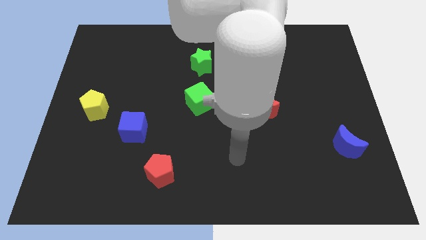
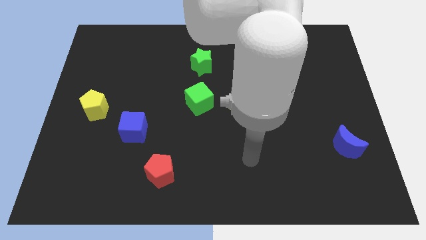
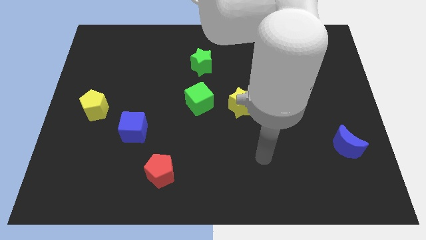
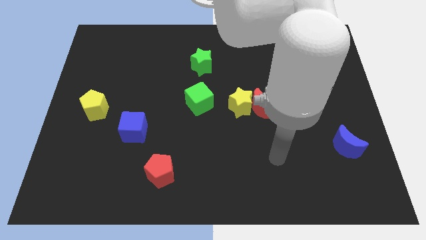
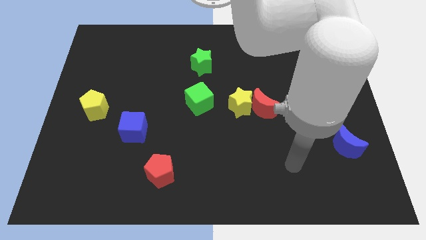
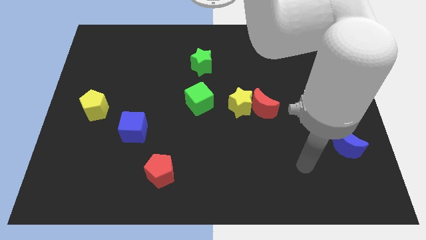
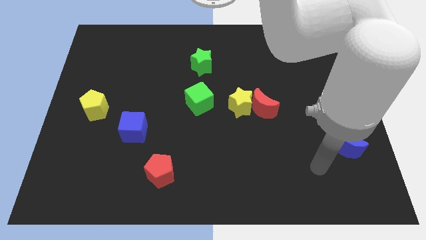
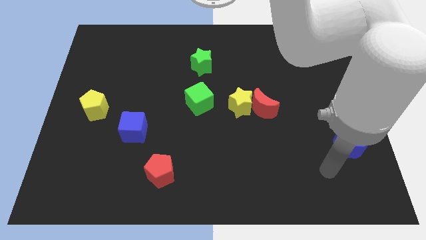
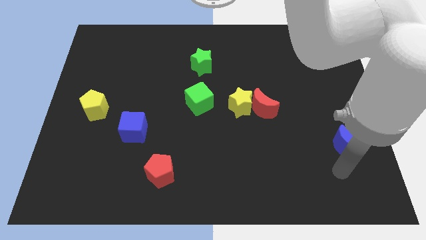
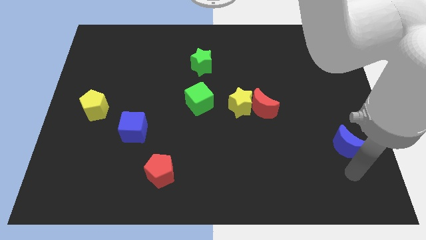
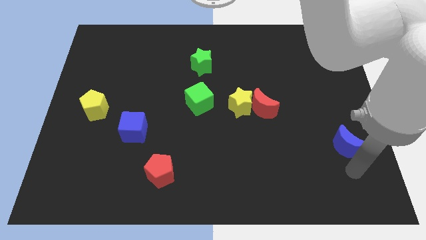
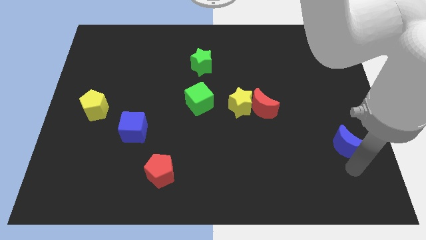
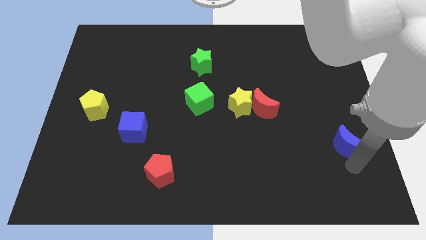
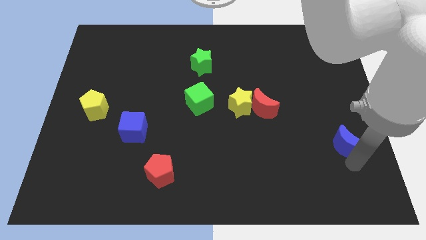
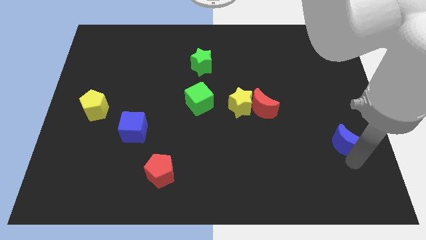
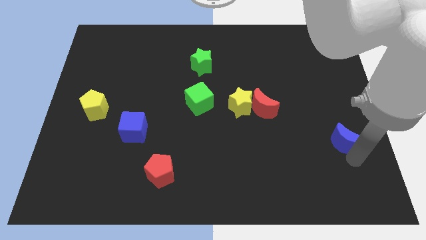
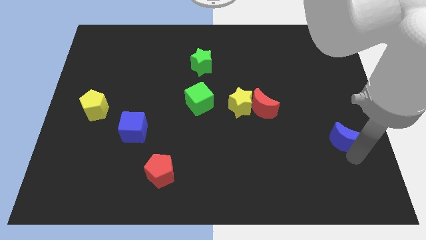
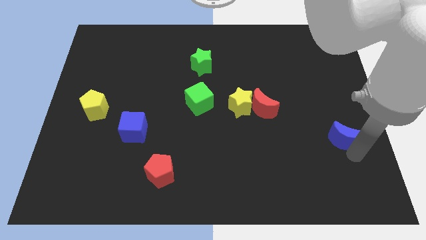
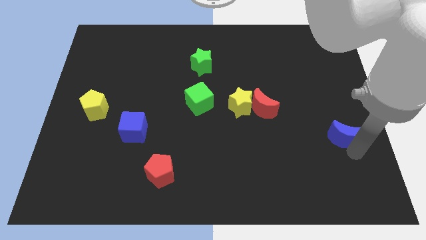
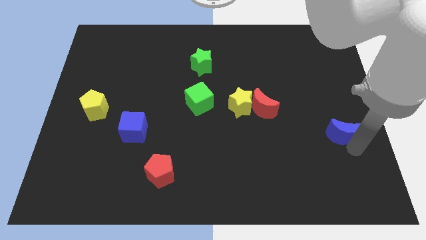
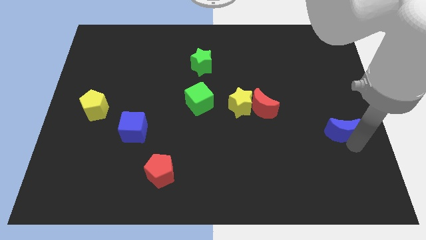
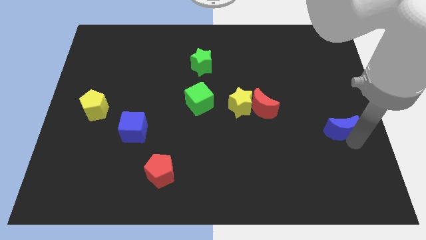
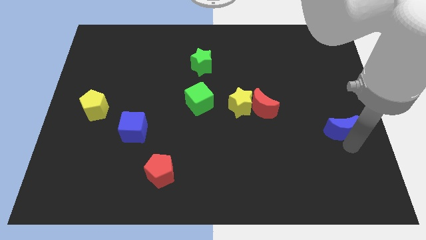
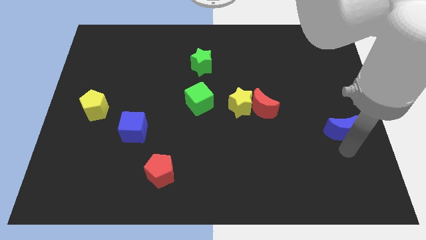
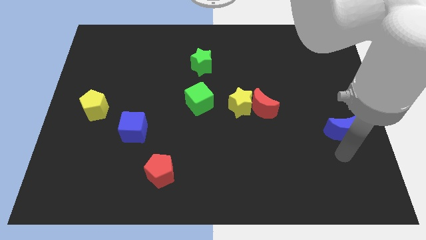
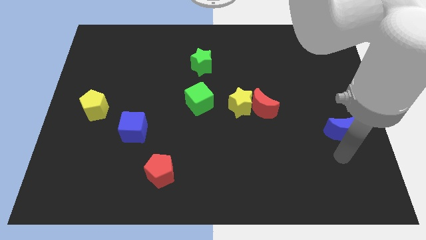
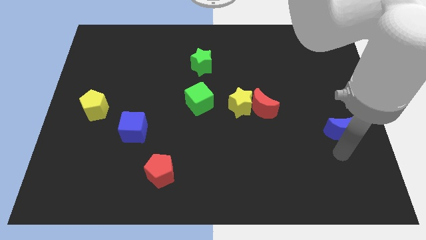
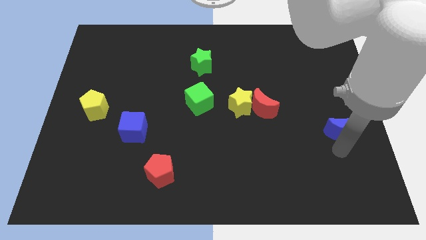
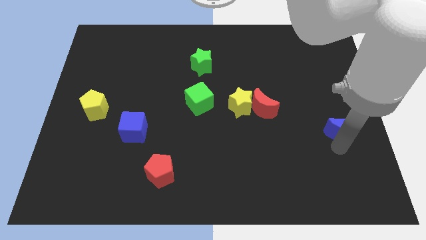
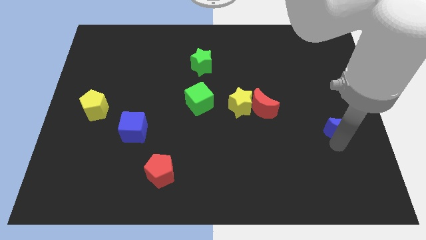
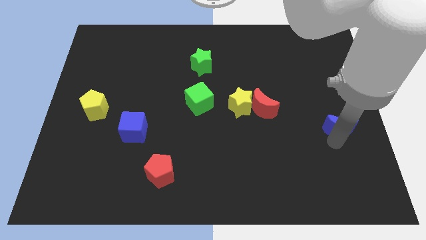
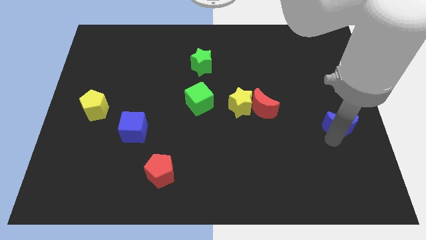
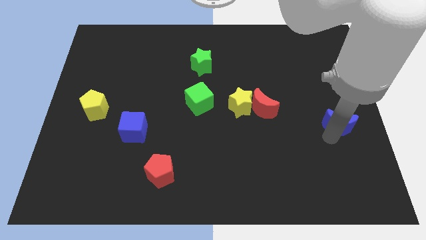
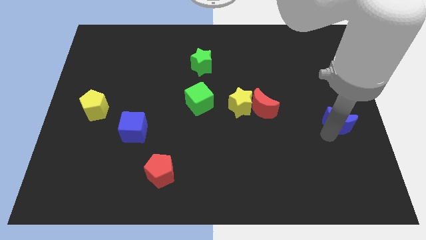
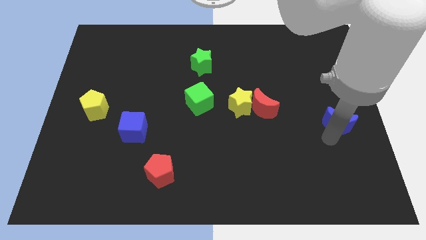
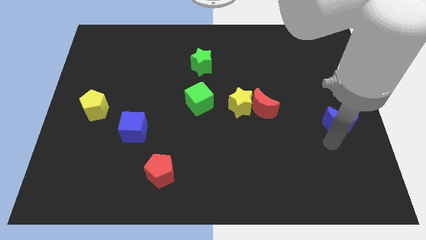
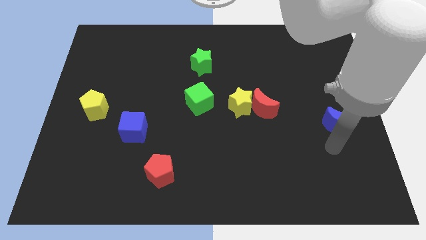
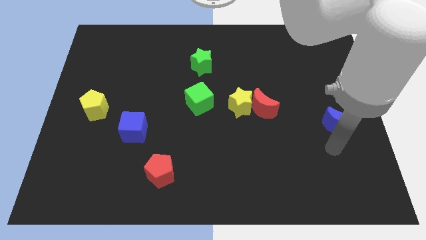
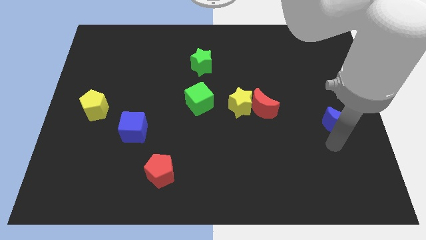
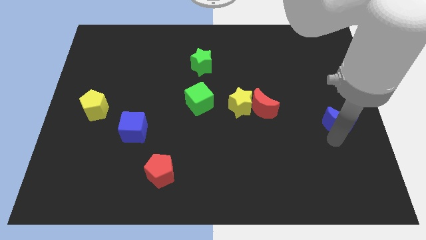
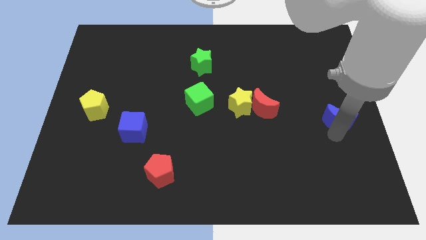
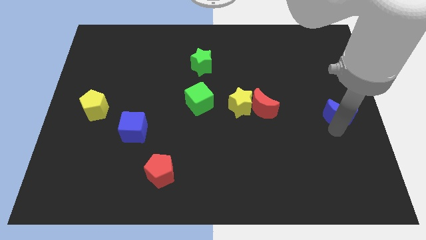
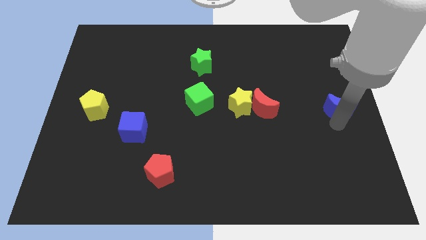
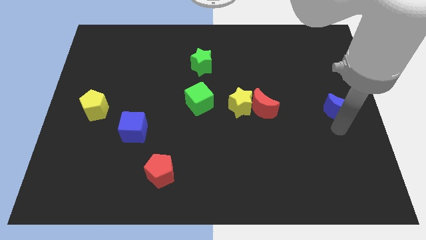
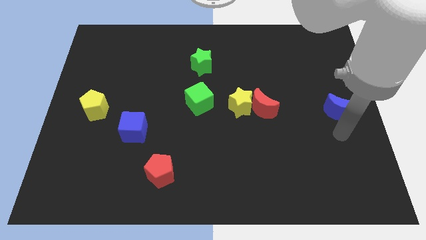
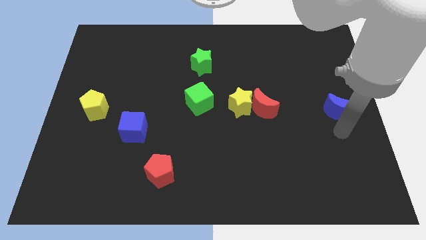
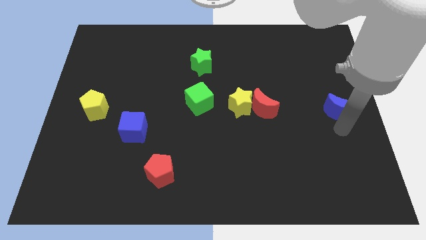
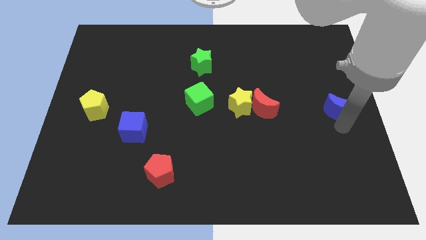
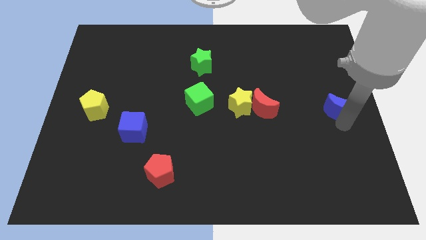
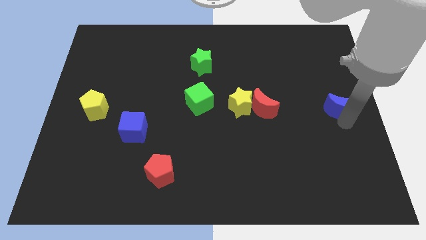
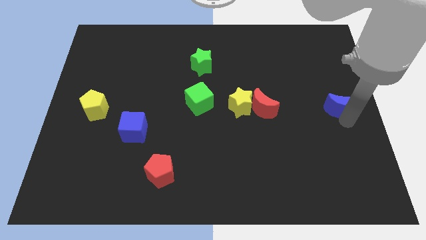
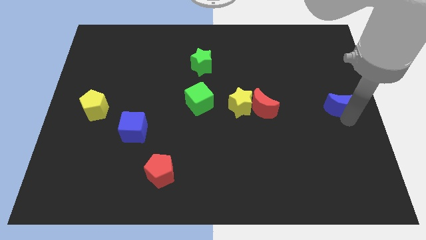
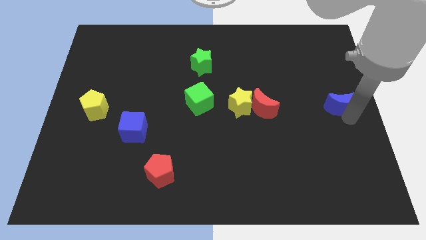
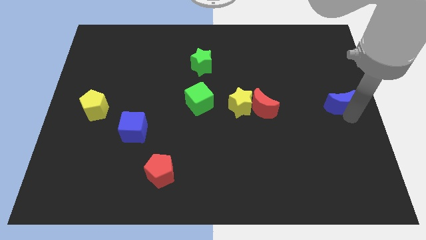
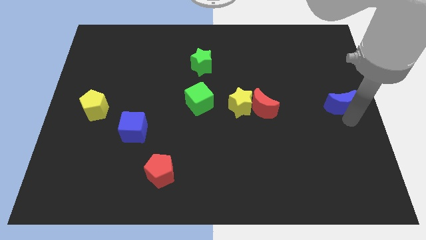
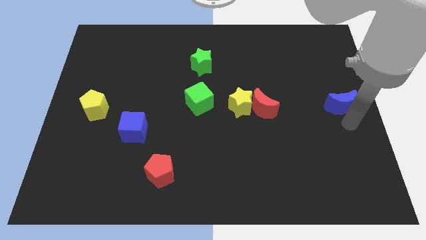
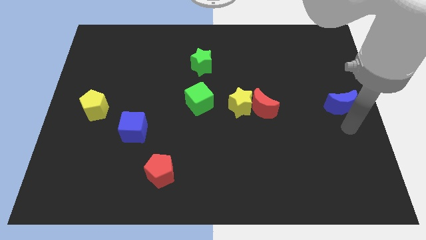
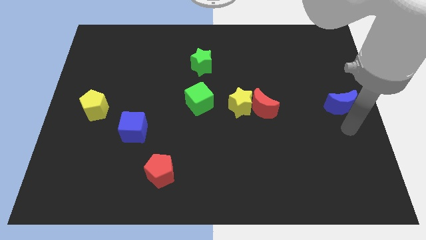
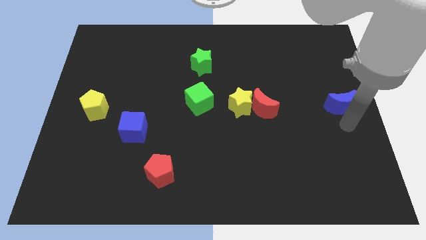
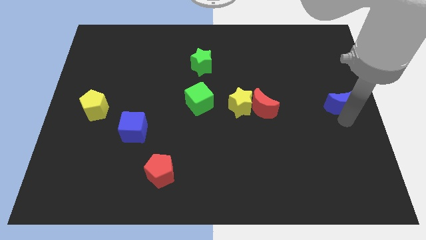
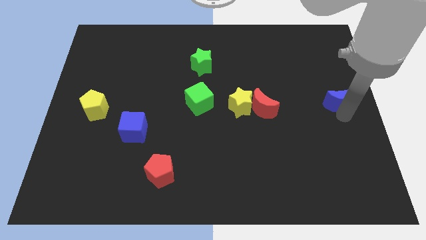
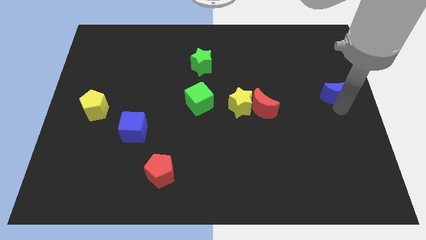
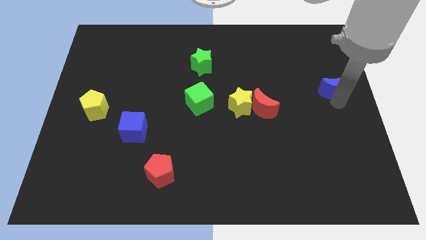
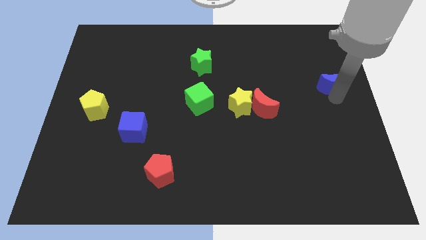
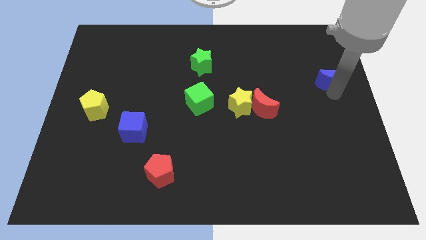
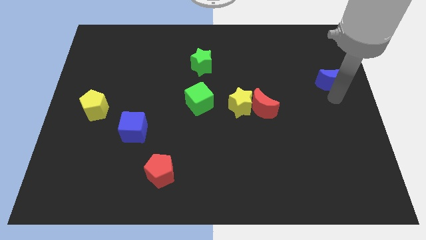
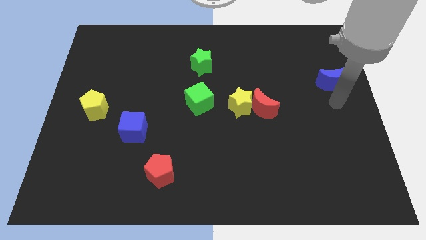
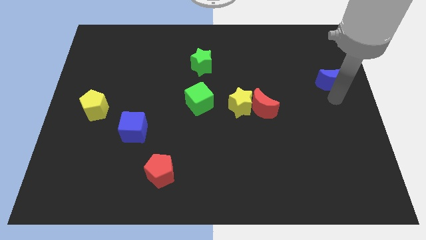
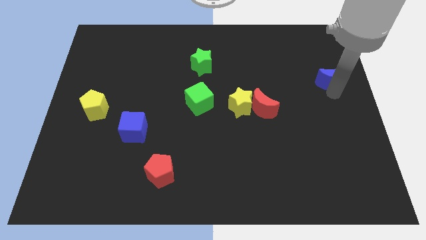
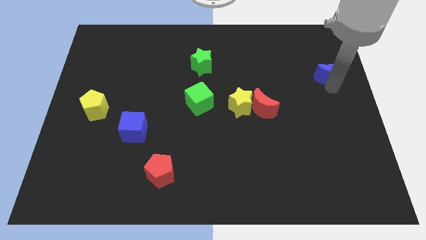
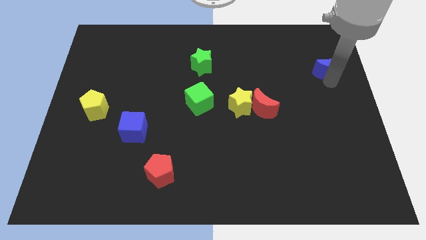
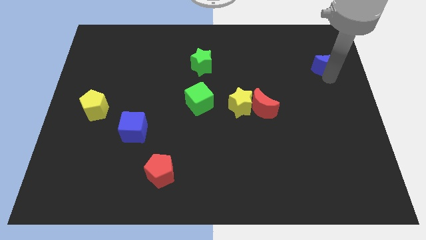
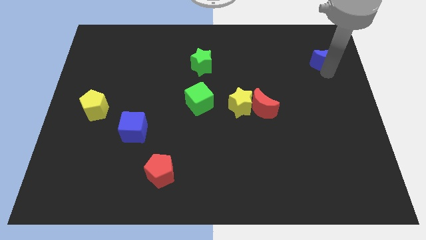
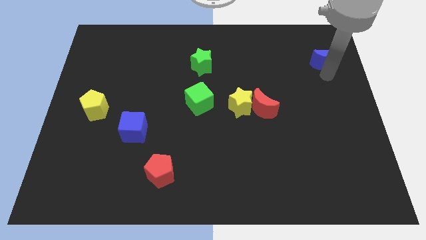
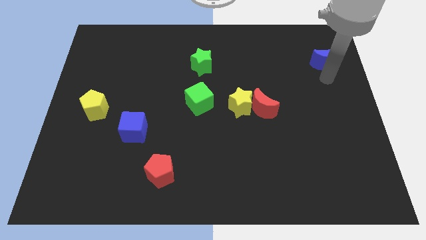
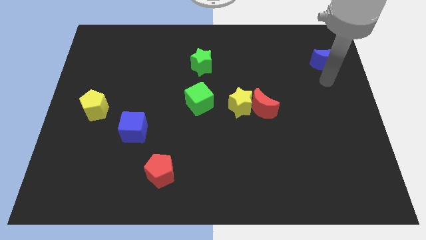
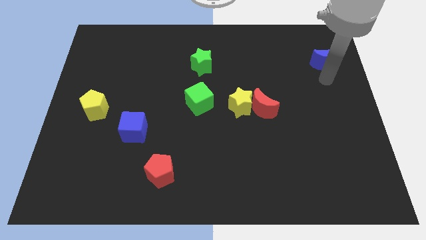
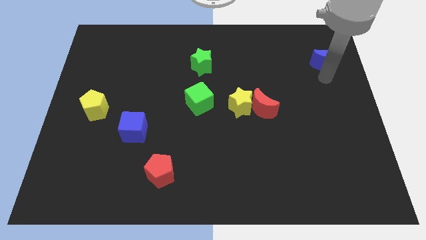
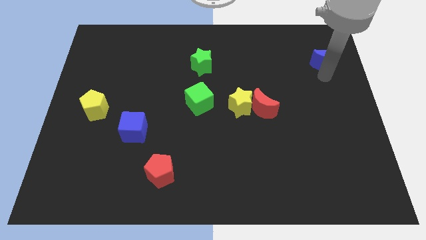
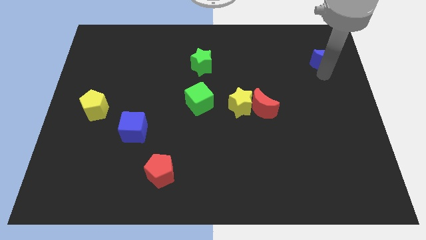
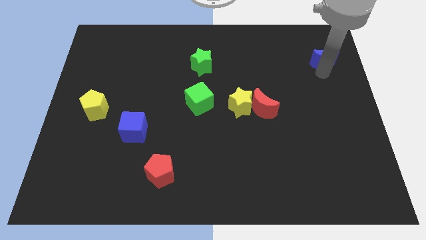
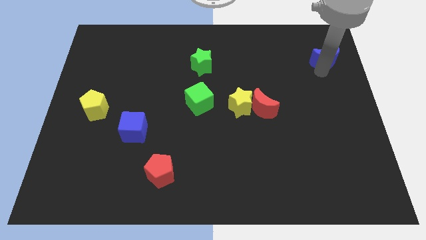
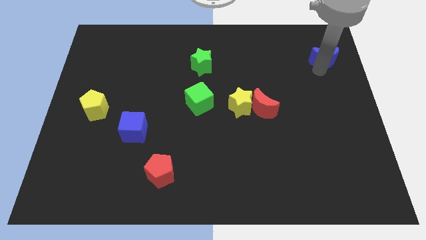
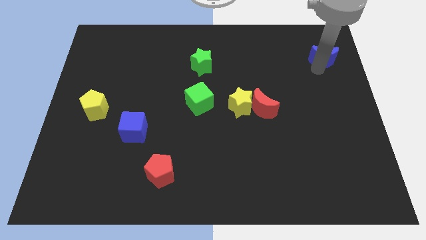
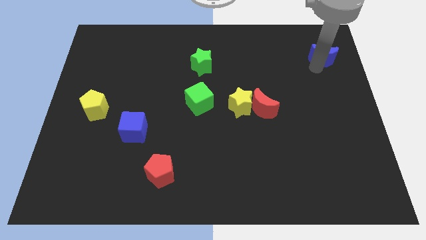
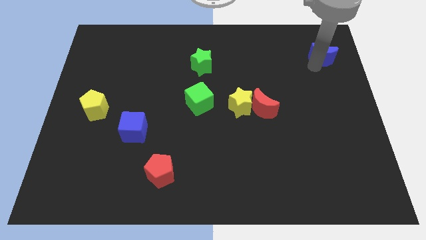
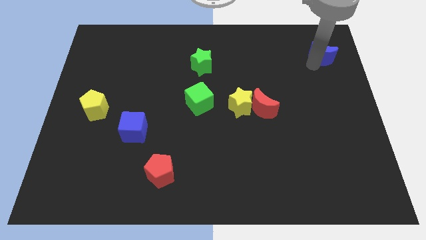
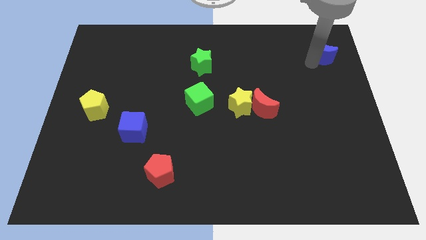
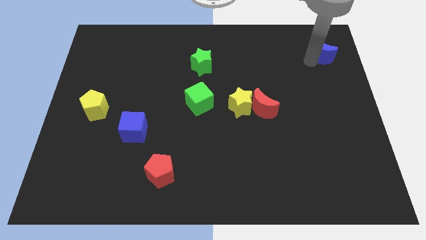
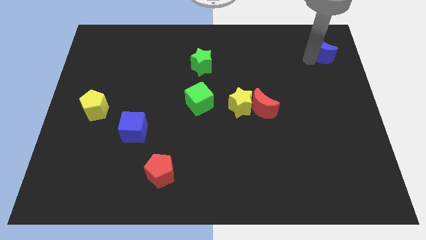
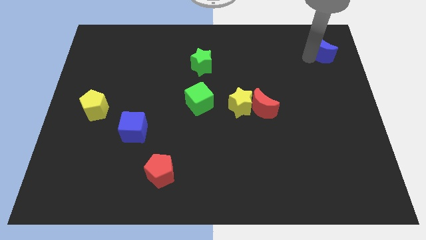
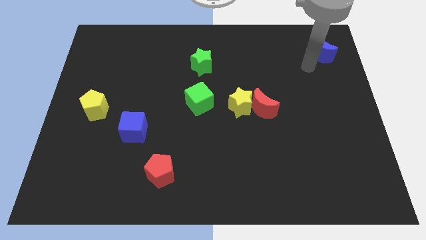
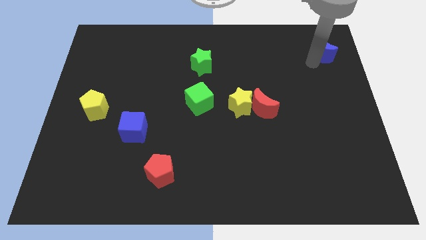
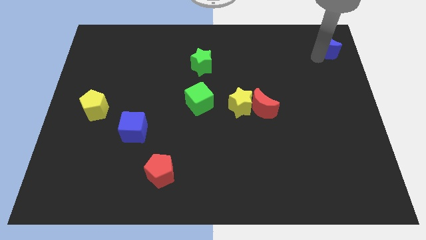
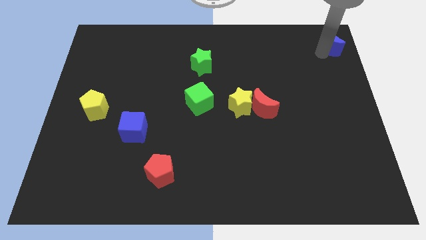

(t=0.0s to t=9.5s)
move the blue moon to the upper right corner
